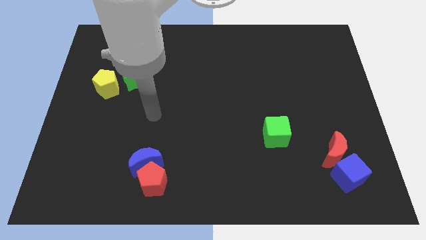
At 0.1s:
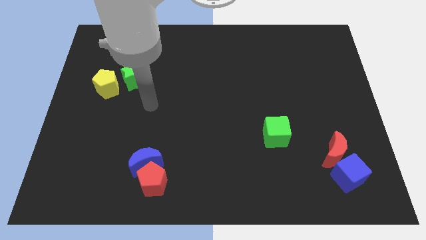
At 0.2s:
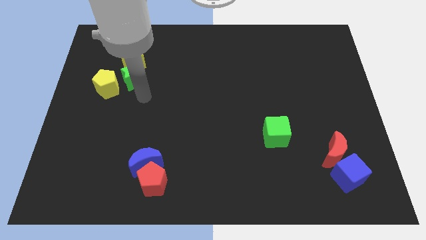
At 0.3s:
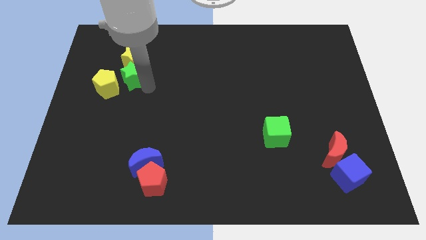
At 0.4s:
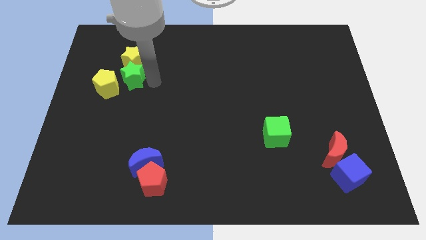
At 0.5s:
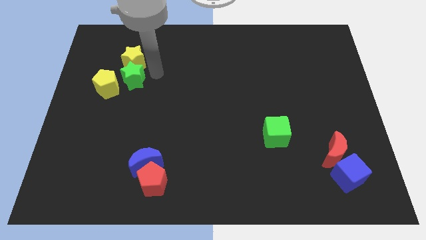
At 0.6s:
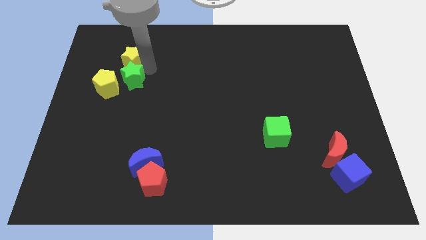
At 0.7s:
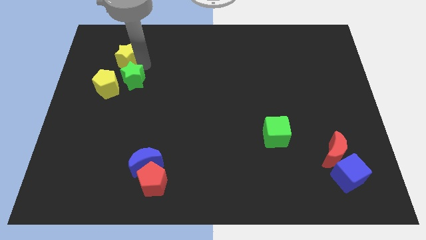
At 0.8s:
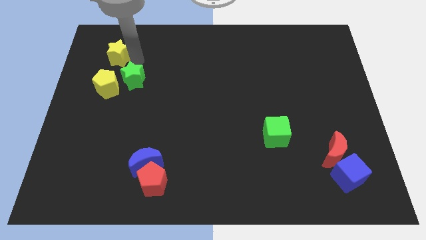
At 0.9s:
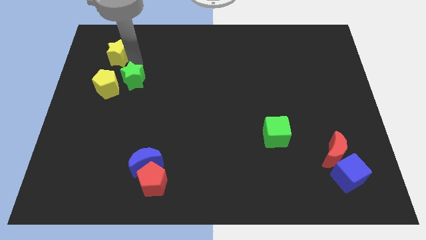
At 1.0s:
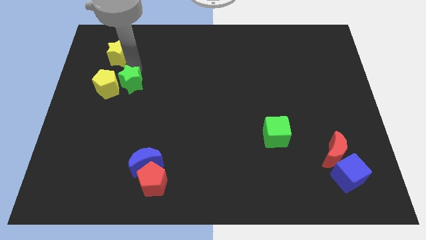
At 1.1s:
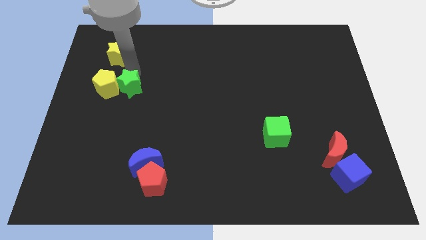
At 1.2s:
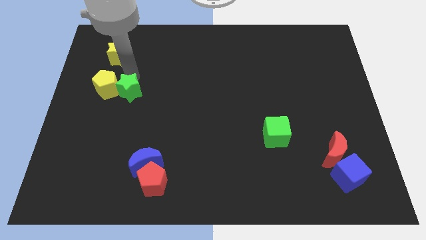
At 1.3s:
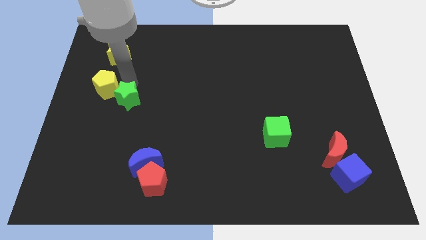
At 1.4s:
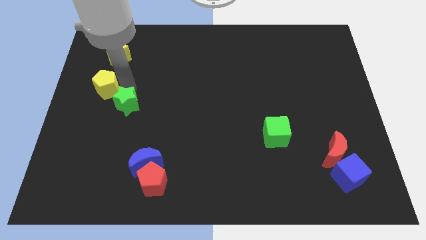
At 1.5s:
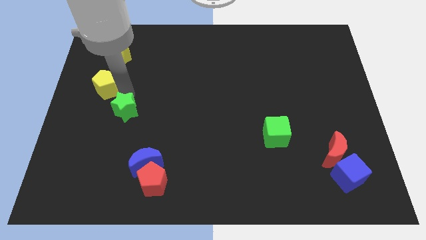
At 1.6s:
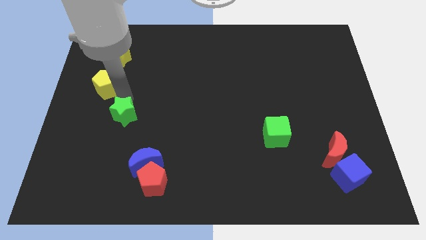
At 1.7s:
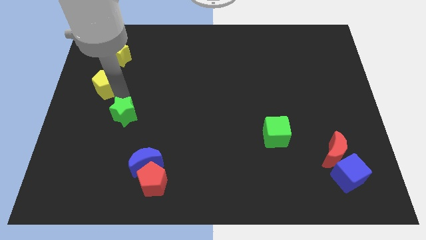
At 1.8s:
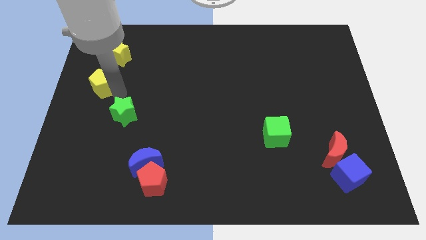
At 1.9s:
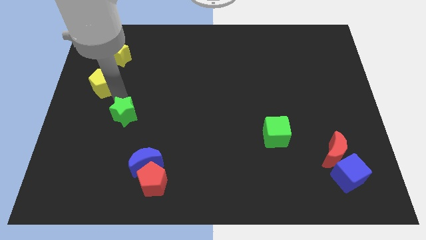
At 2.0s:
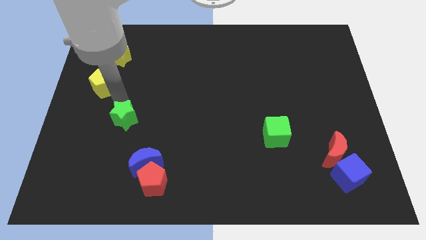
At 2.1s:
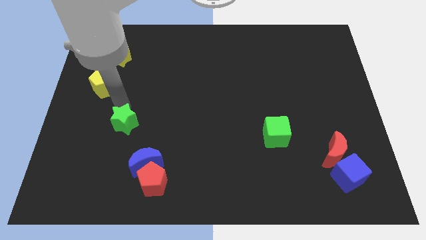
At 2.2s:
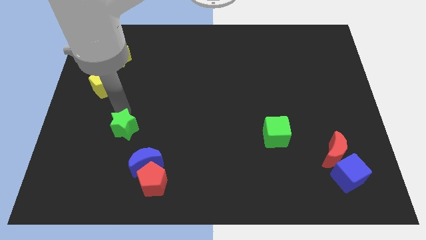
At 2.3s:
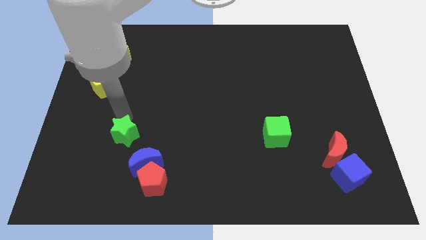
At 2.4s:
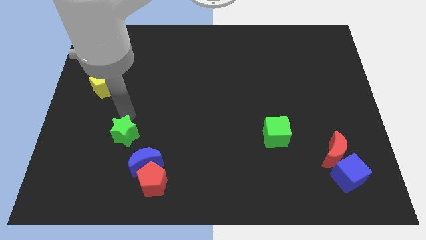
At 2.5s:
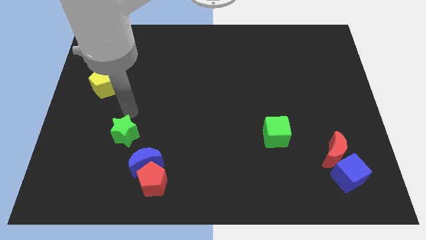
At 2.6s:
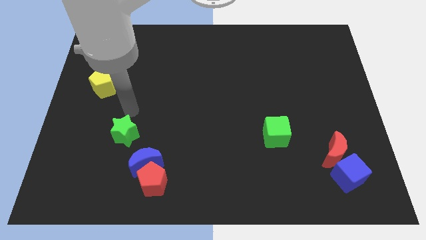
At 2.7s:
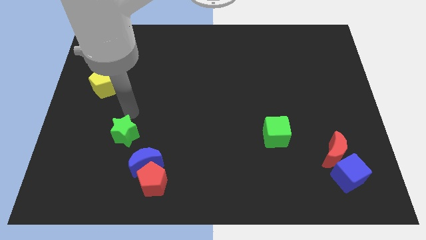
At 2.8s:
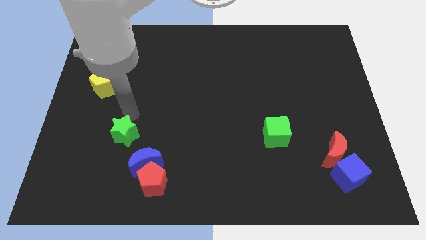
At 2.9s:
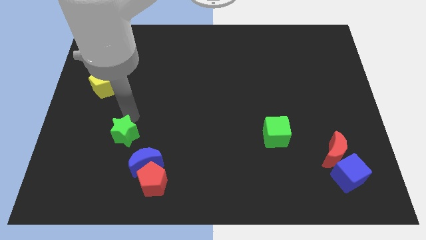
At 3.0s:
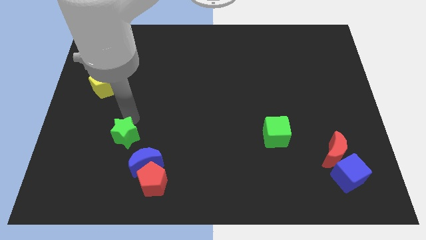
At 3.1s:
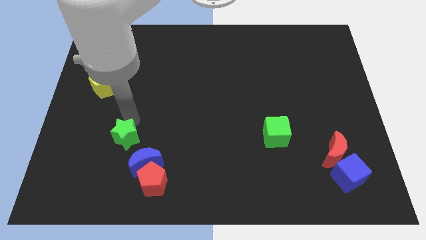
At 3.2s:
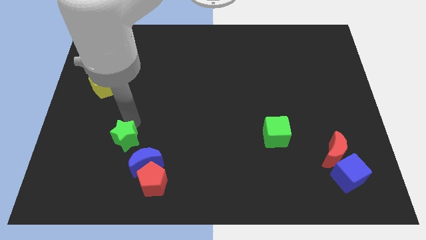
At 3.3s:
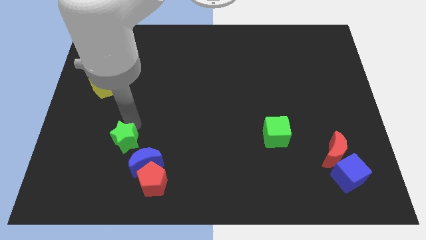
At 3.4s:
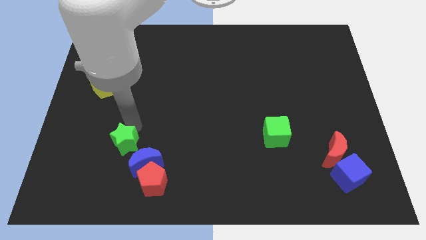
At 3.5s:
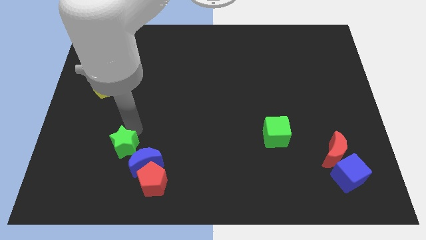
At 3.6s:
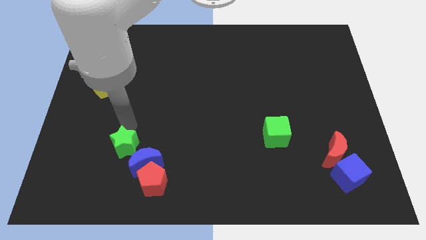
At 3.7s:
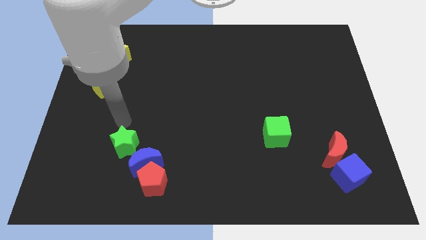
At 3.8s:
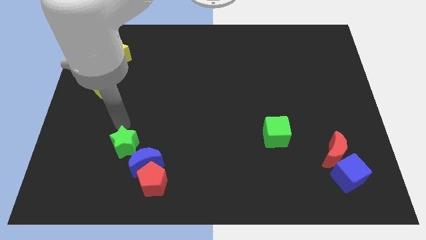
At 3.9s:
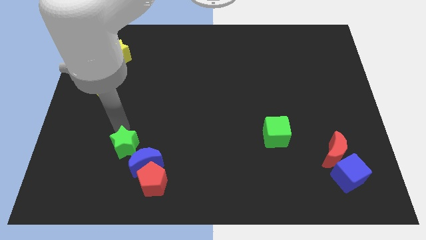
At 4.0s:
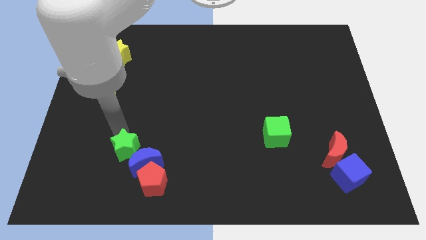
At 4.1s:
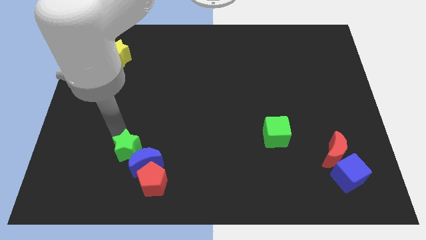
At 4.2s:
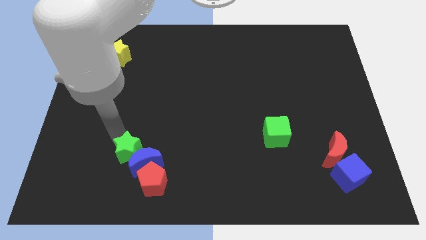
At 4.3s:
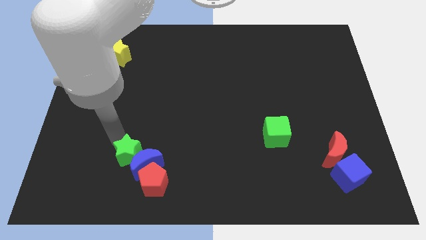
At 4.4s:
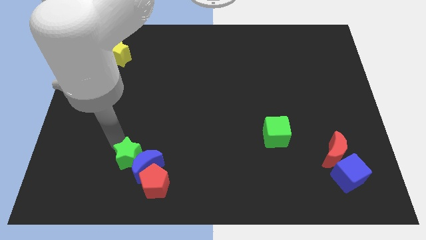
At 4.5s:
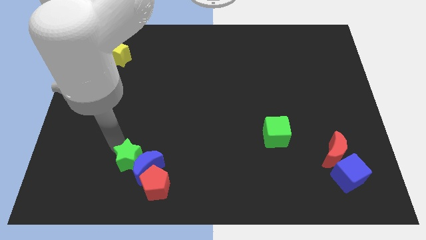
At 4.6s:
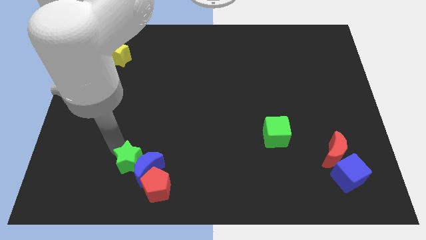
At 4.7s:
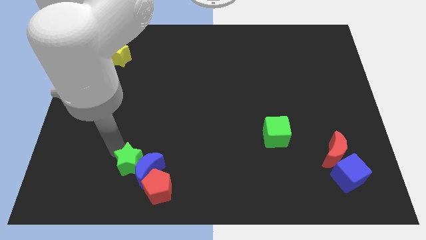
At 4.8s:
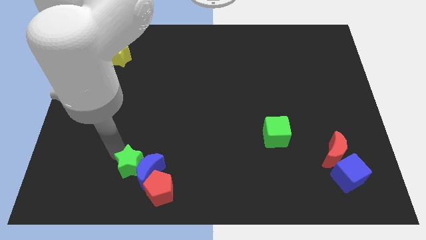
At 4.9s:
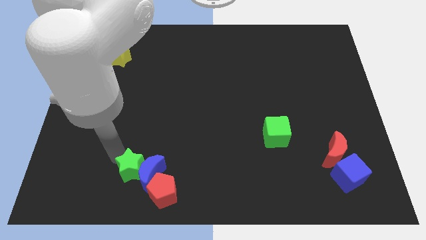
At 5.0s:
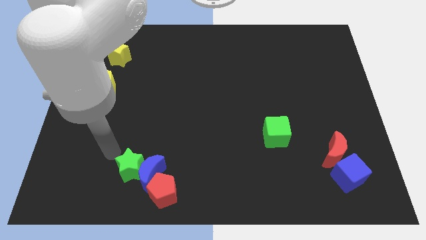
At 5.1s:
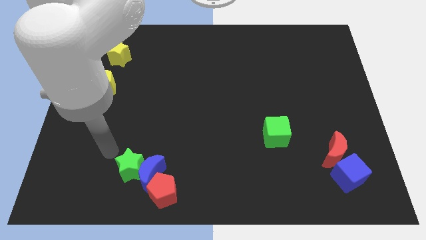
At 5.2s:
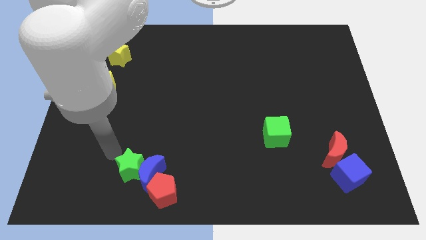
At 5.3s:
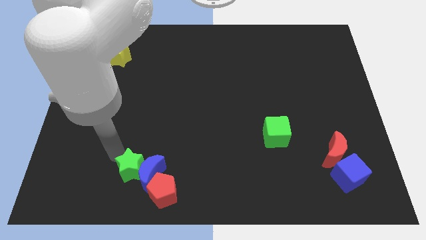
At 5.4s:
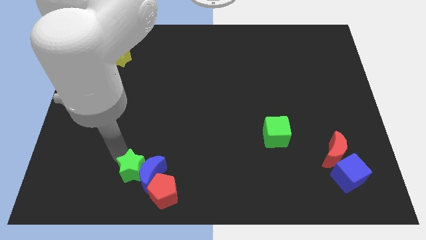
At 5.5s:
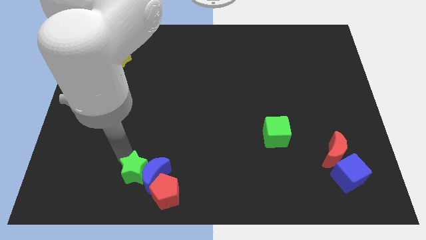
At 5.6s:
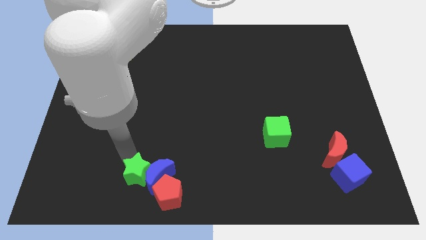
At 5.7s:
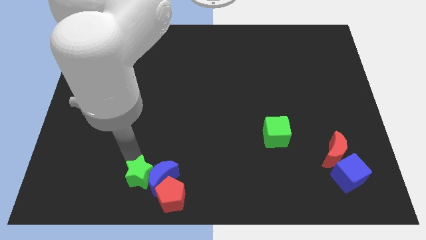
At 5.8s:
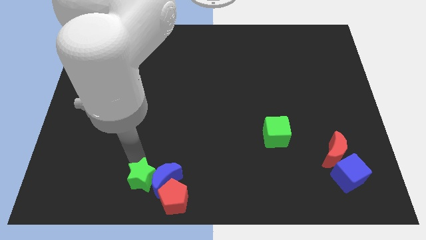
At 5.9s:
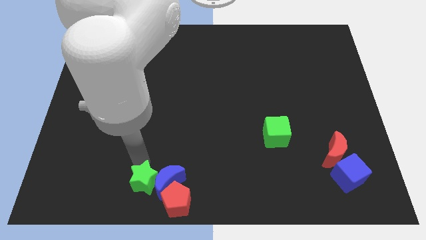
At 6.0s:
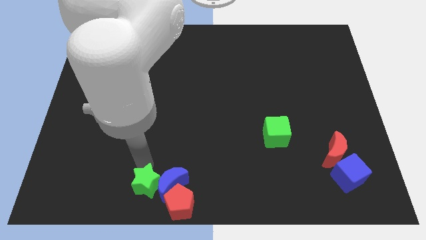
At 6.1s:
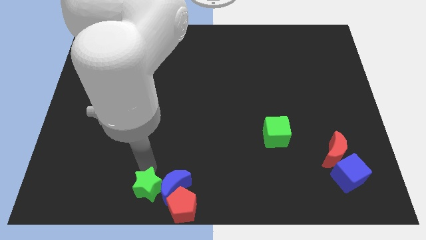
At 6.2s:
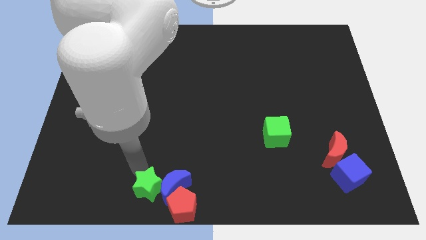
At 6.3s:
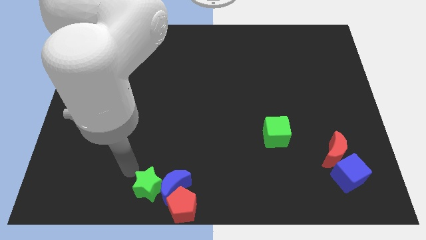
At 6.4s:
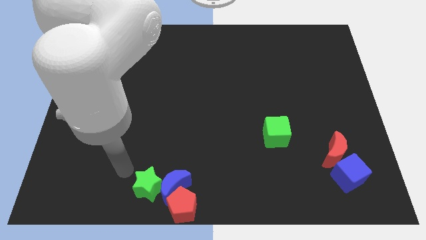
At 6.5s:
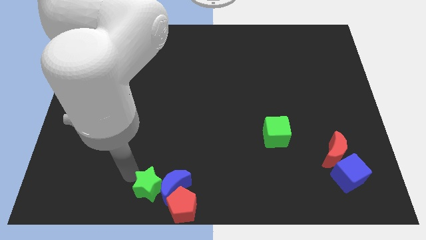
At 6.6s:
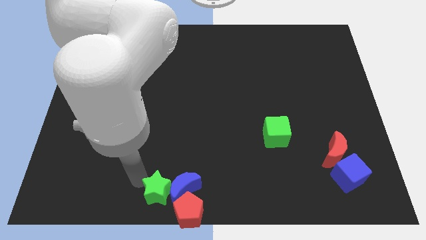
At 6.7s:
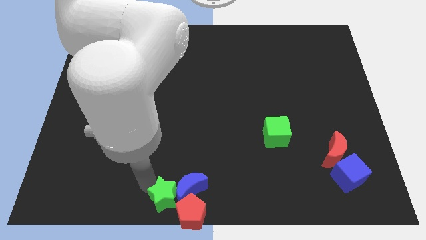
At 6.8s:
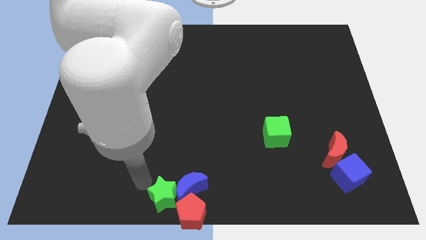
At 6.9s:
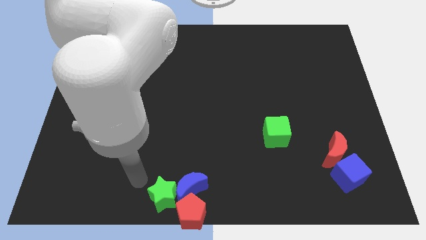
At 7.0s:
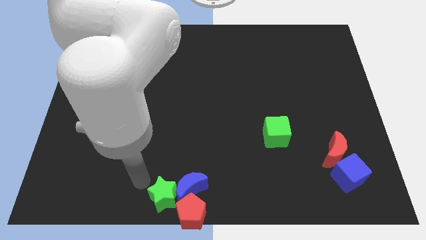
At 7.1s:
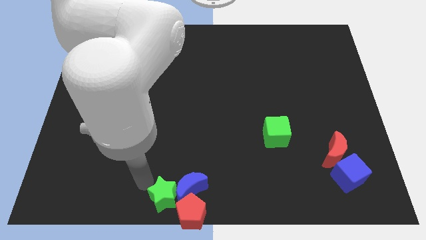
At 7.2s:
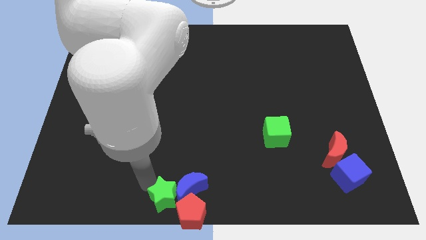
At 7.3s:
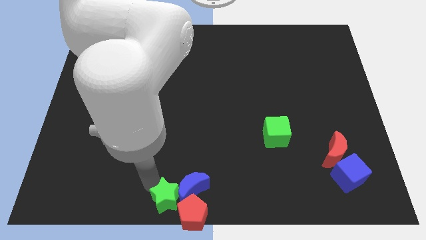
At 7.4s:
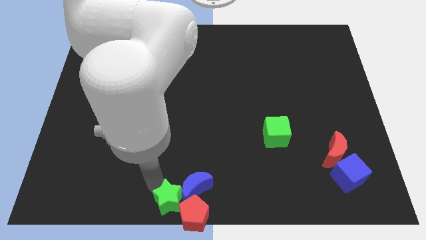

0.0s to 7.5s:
put the green star close to the red pentagon
